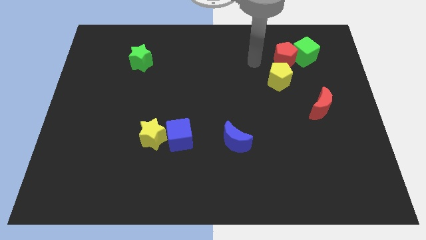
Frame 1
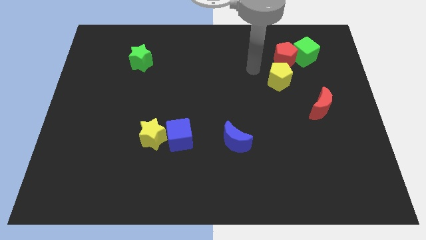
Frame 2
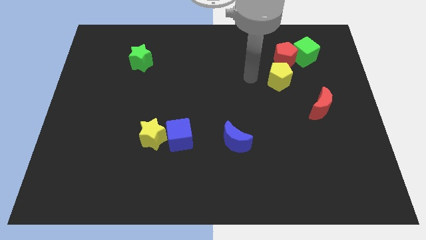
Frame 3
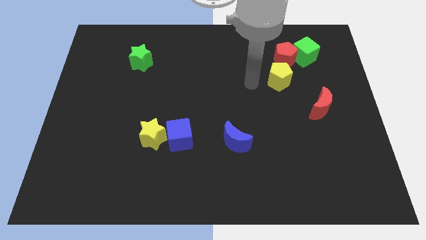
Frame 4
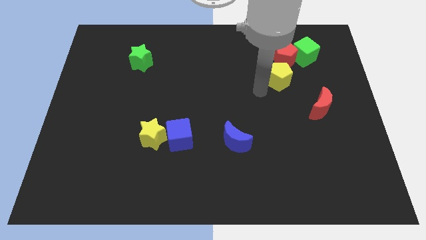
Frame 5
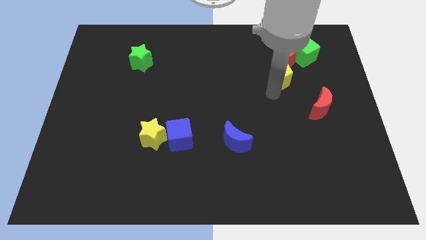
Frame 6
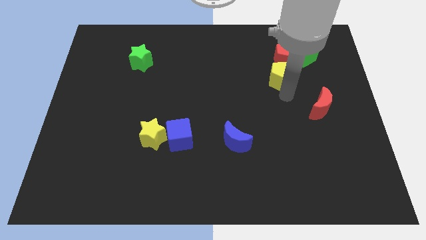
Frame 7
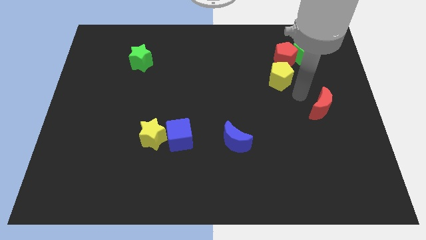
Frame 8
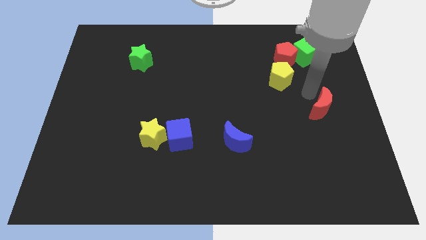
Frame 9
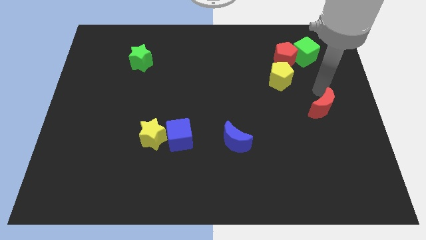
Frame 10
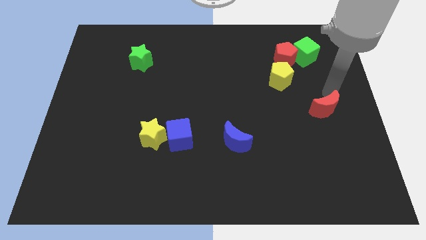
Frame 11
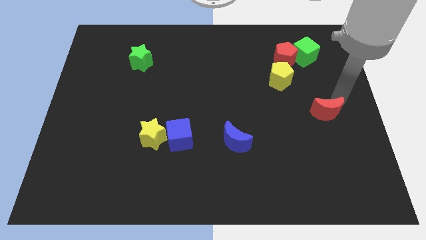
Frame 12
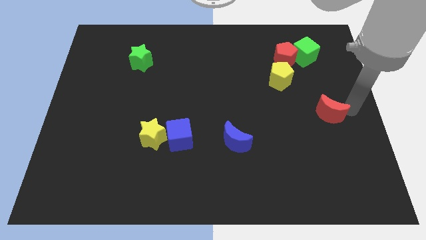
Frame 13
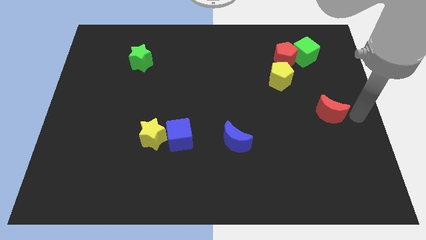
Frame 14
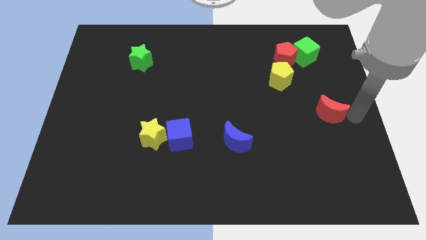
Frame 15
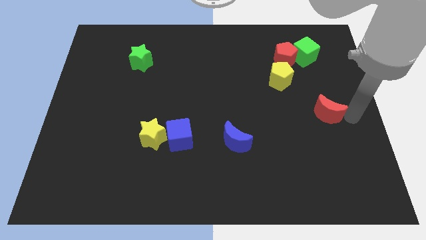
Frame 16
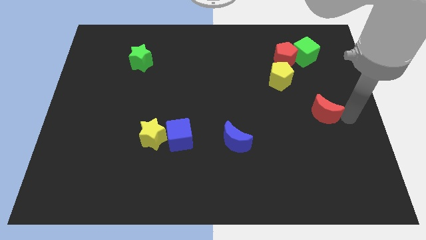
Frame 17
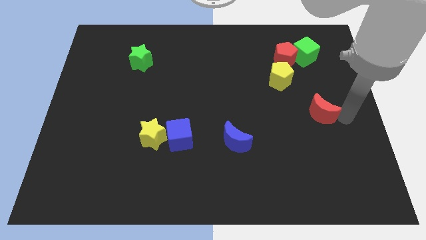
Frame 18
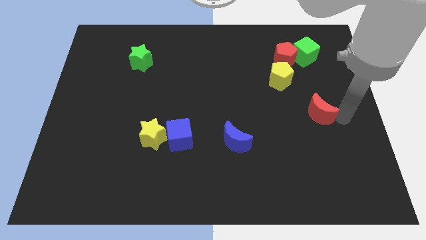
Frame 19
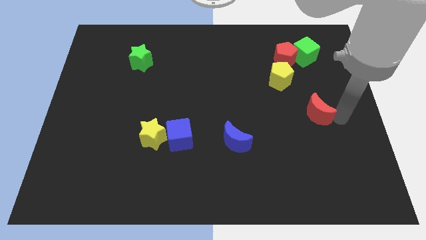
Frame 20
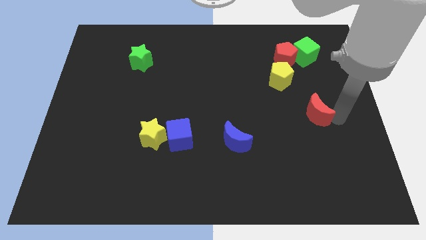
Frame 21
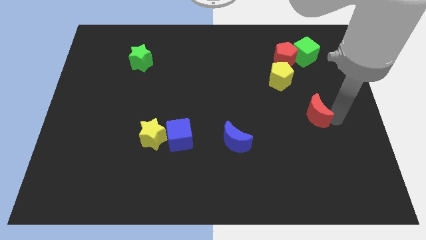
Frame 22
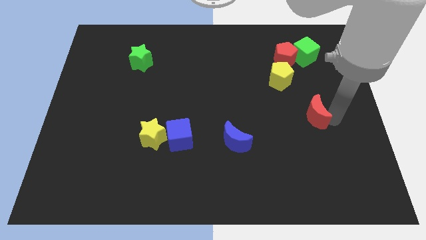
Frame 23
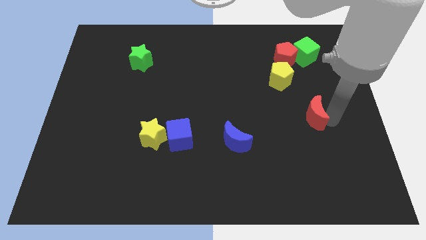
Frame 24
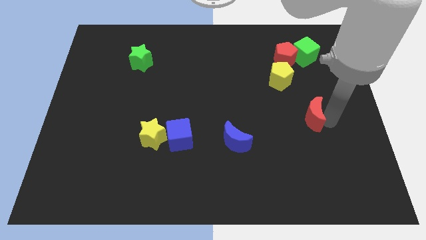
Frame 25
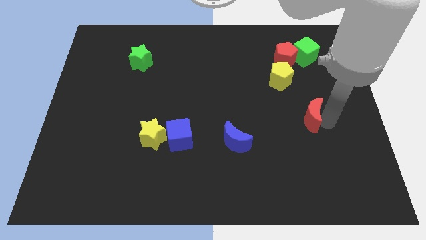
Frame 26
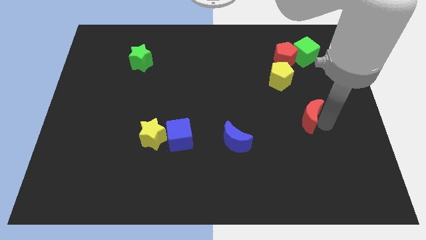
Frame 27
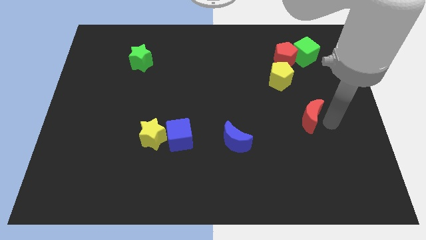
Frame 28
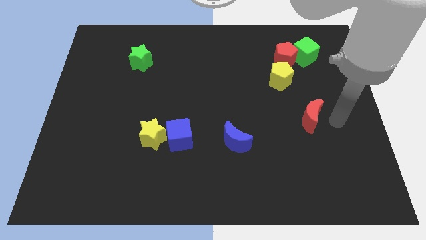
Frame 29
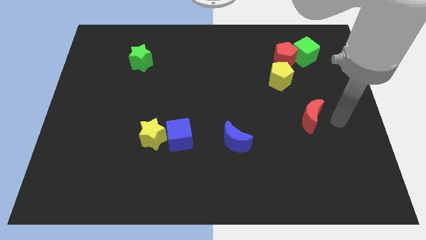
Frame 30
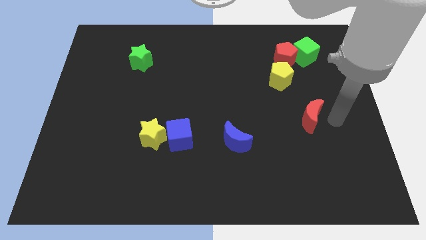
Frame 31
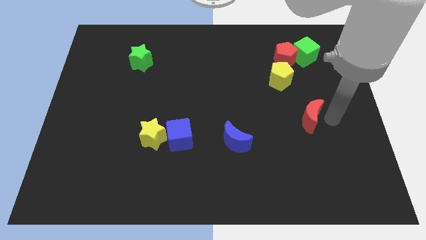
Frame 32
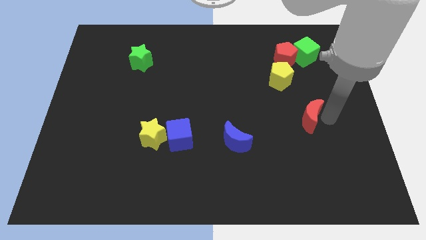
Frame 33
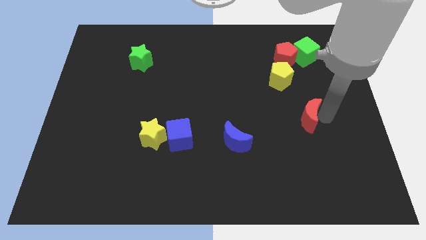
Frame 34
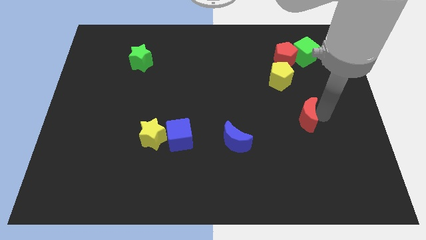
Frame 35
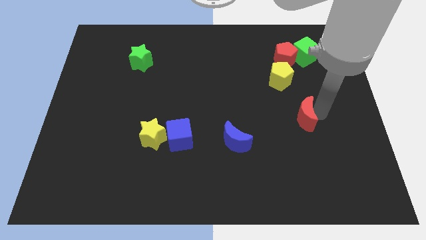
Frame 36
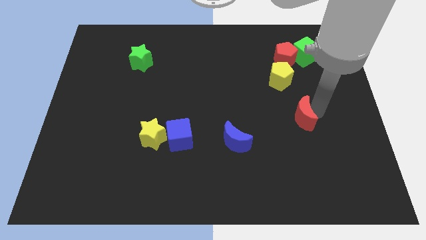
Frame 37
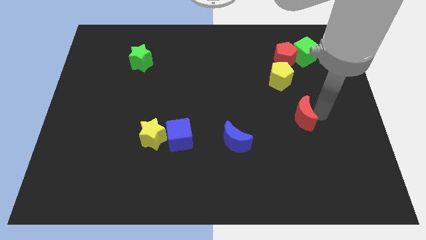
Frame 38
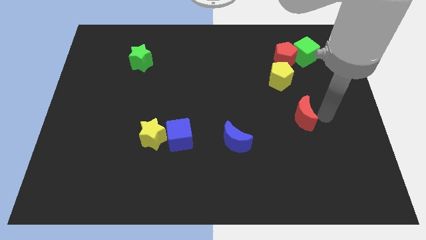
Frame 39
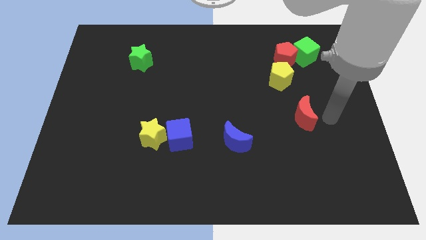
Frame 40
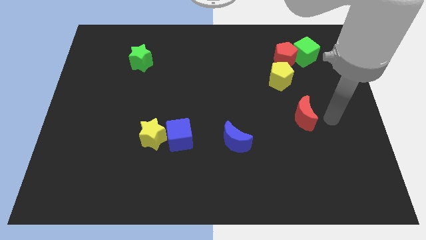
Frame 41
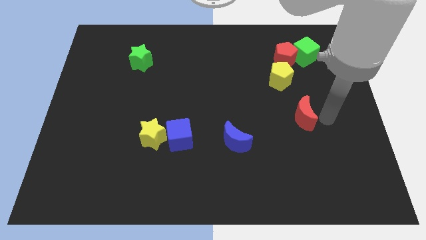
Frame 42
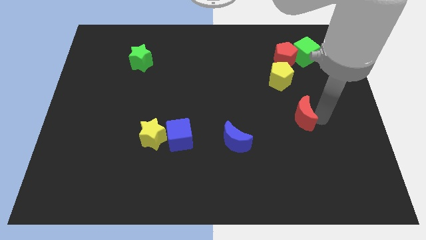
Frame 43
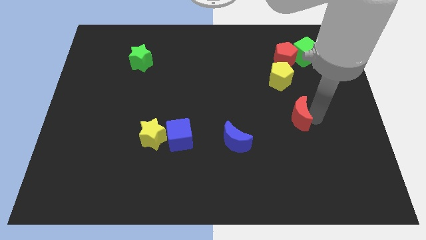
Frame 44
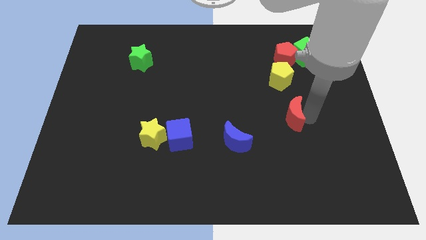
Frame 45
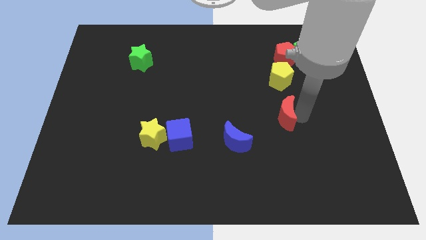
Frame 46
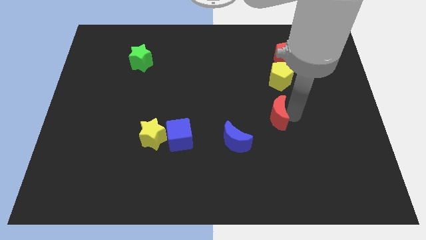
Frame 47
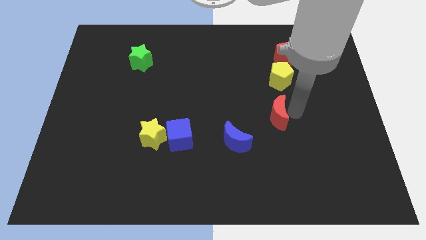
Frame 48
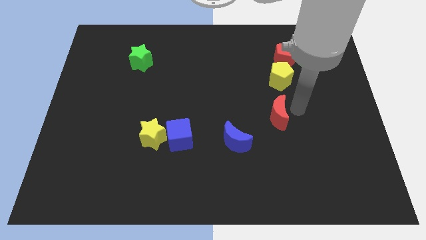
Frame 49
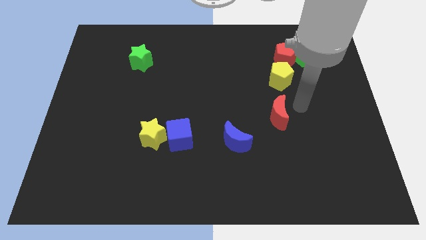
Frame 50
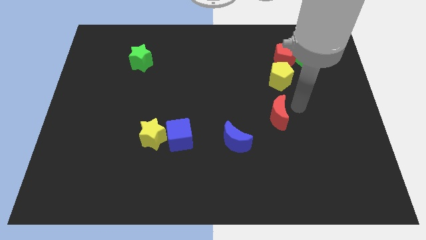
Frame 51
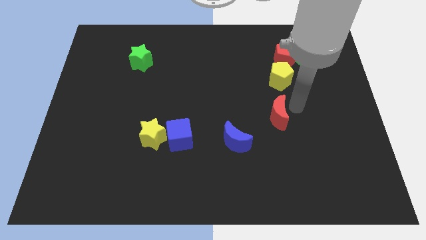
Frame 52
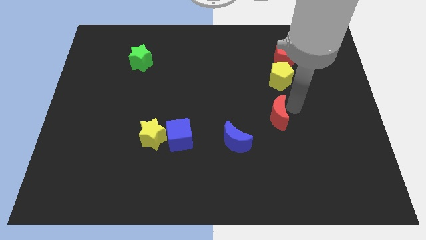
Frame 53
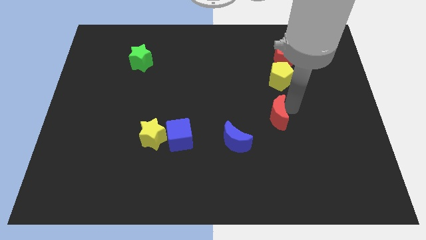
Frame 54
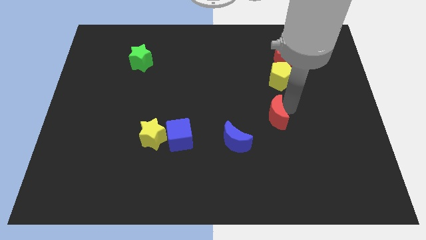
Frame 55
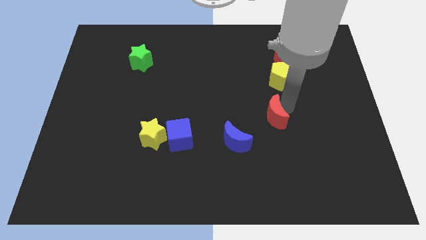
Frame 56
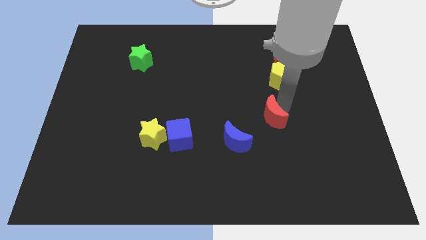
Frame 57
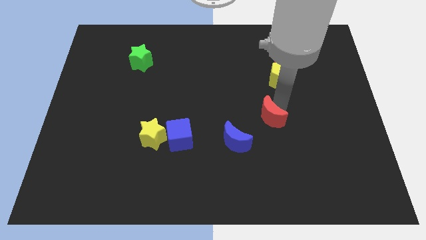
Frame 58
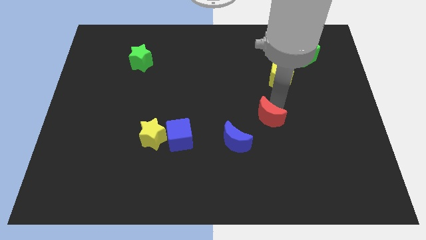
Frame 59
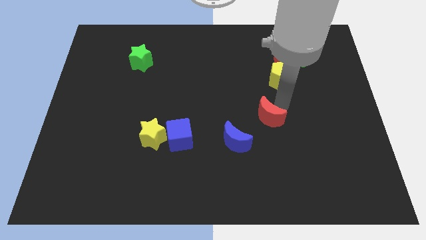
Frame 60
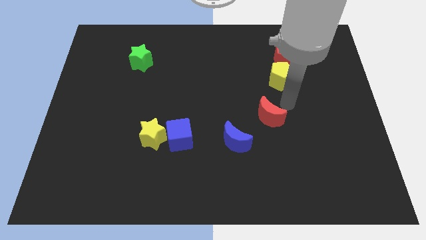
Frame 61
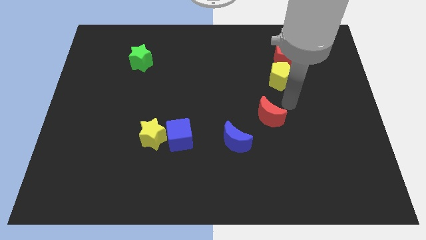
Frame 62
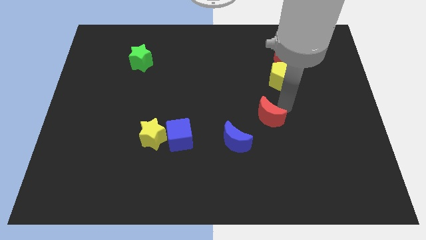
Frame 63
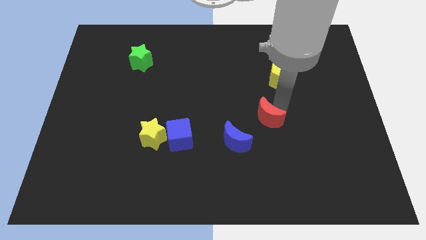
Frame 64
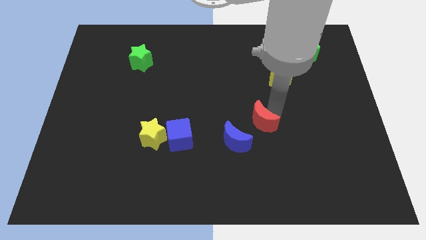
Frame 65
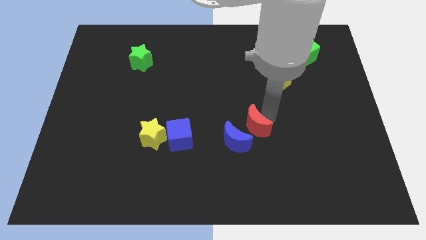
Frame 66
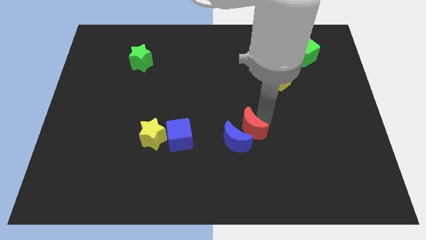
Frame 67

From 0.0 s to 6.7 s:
push the red moon to the blue moon

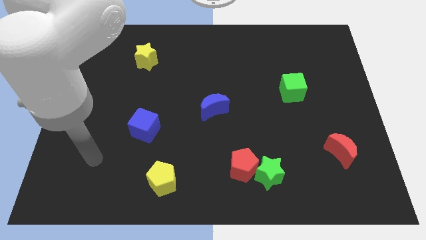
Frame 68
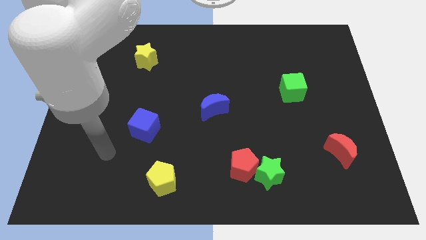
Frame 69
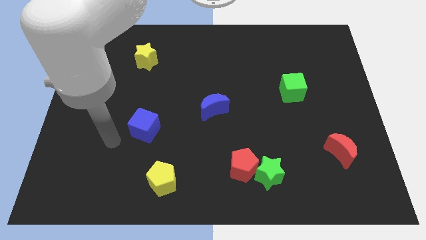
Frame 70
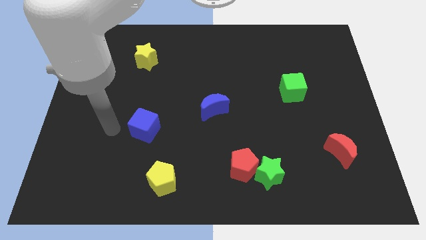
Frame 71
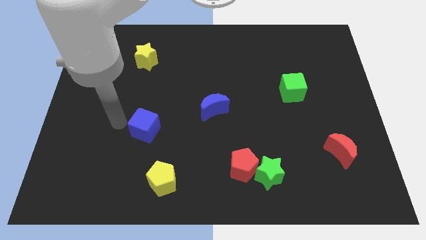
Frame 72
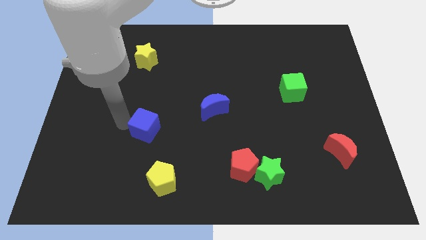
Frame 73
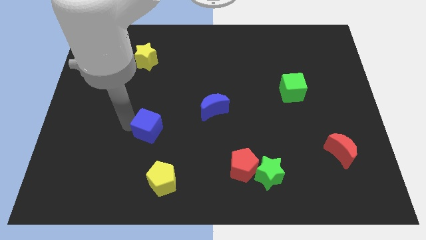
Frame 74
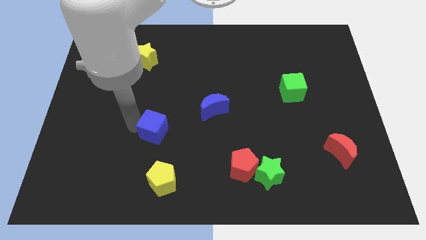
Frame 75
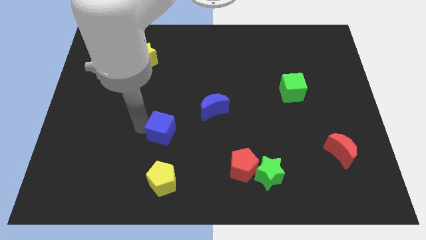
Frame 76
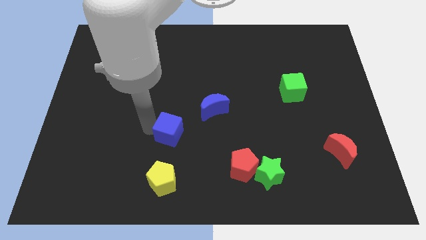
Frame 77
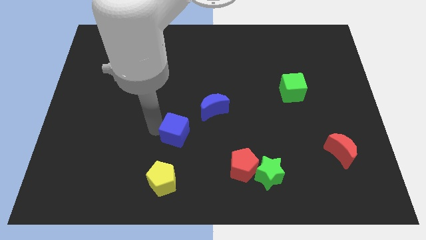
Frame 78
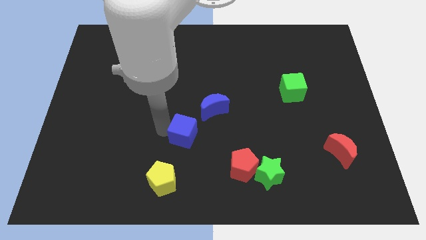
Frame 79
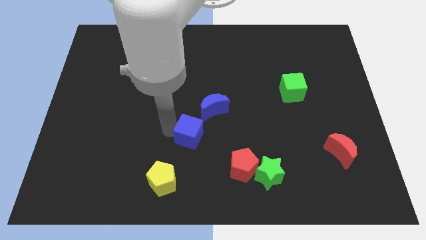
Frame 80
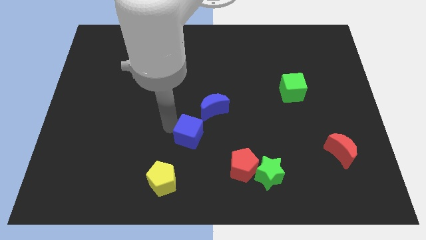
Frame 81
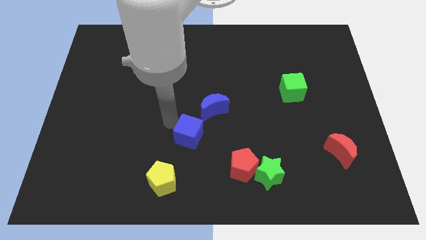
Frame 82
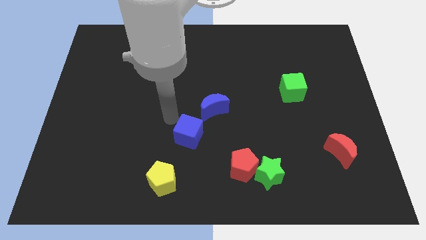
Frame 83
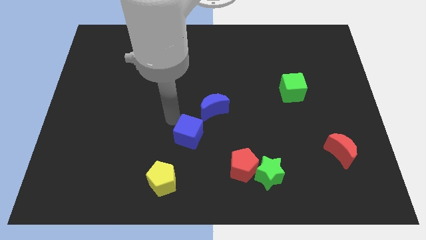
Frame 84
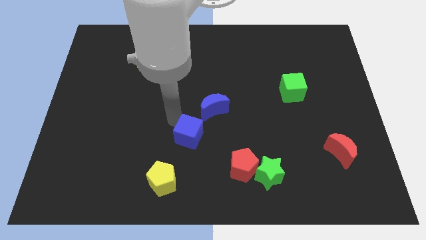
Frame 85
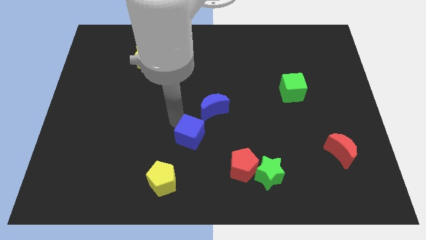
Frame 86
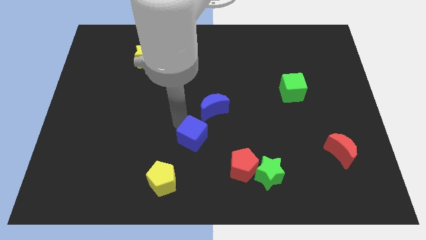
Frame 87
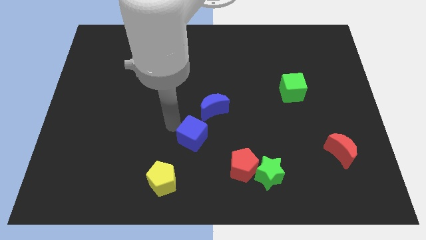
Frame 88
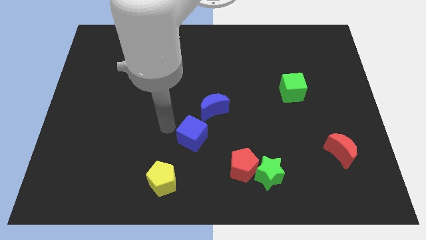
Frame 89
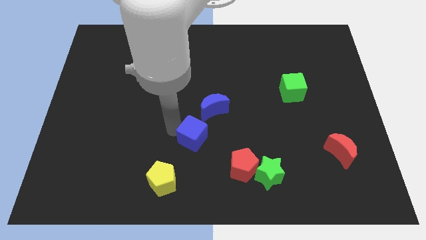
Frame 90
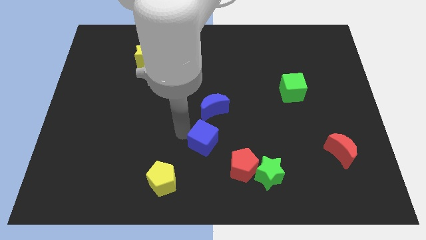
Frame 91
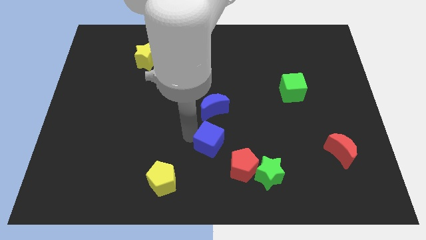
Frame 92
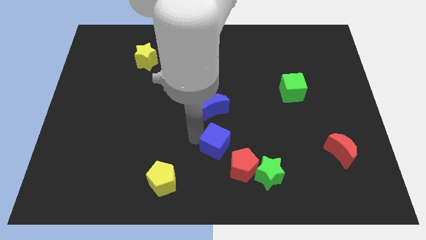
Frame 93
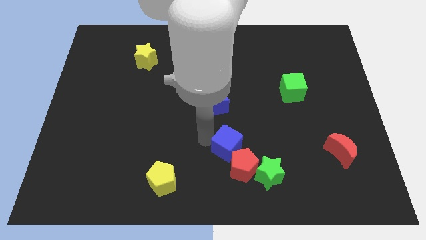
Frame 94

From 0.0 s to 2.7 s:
put the blue cube next to the red pentagon
